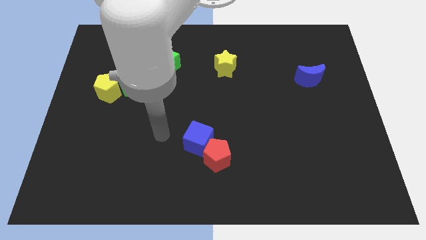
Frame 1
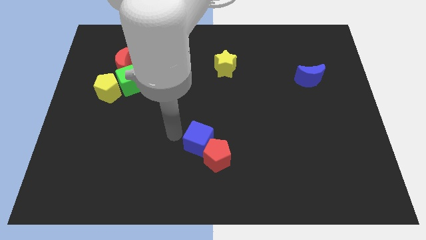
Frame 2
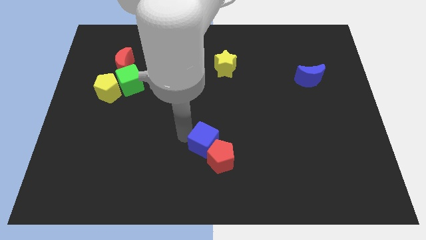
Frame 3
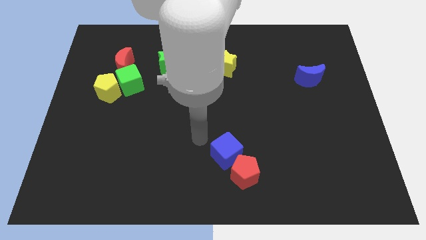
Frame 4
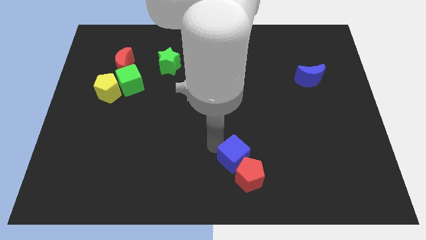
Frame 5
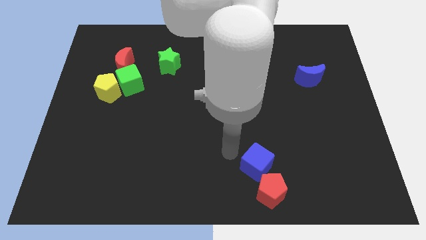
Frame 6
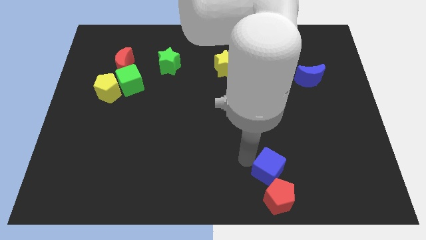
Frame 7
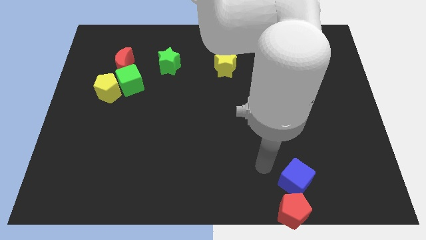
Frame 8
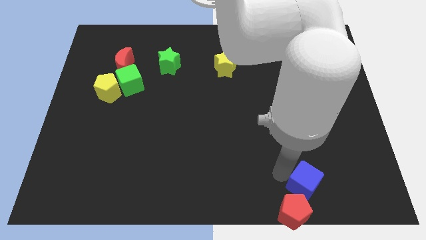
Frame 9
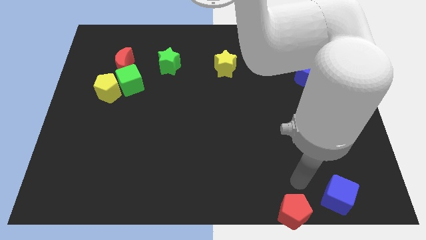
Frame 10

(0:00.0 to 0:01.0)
pull the red pentagon apart from the blue cube

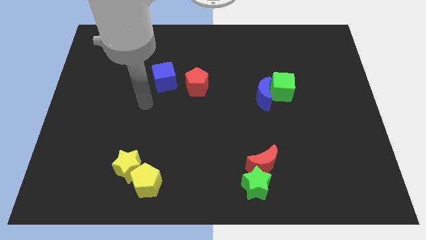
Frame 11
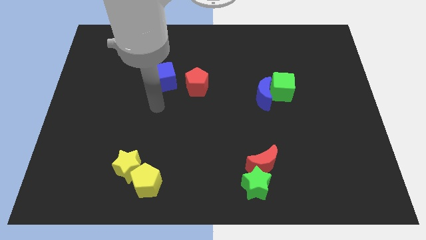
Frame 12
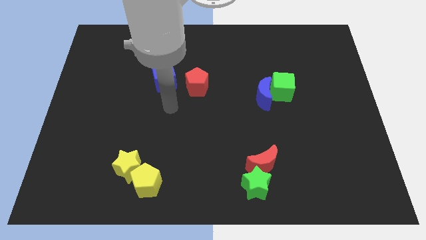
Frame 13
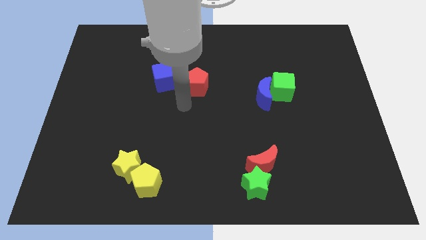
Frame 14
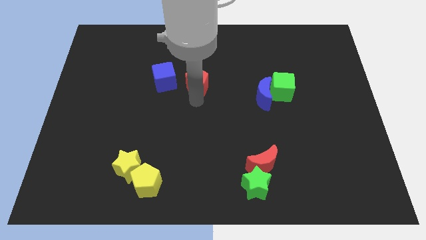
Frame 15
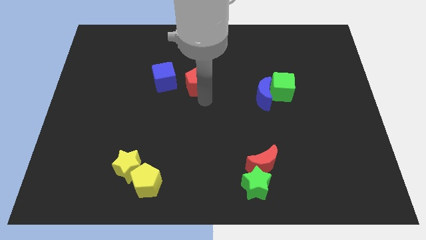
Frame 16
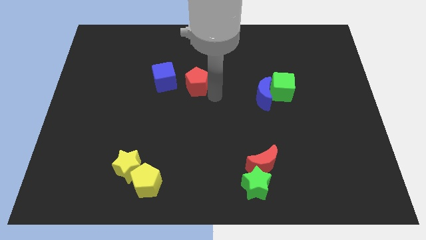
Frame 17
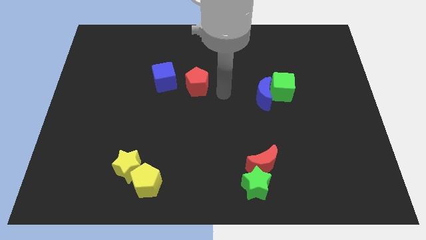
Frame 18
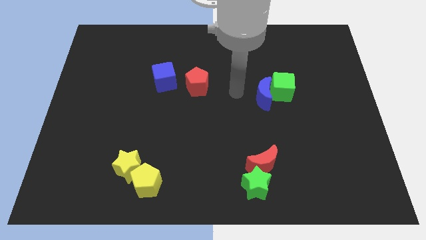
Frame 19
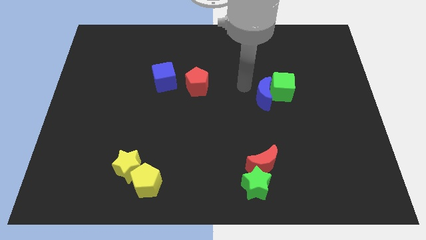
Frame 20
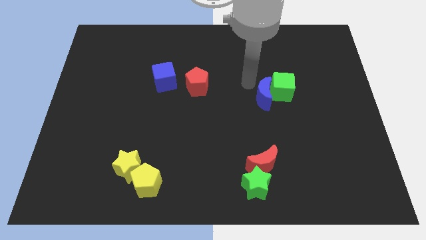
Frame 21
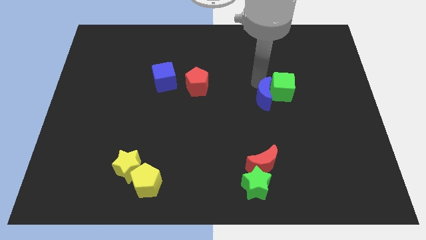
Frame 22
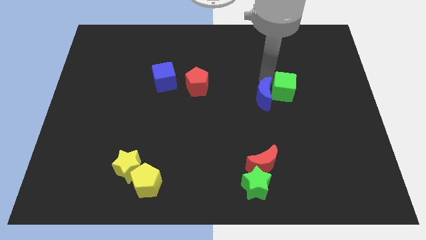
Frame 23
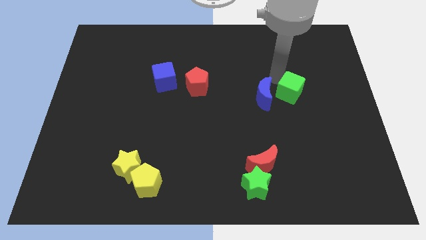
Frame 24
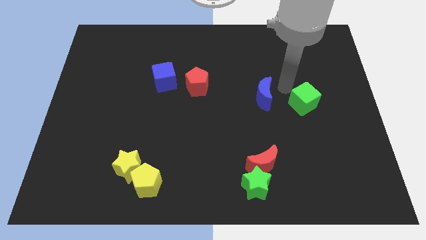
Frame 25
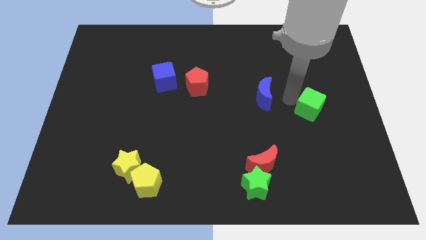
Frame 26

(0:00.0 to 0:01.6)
pull the blue moon apart from the green cube

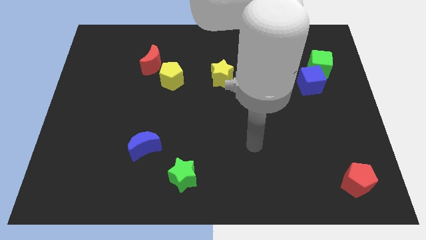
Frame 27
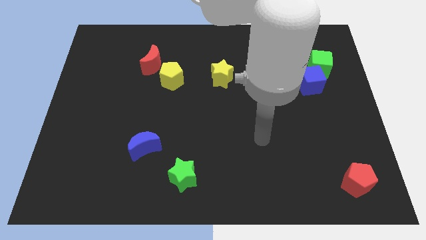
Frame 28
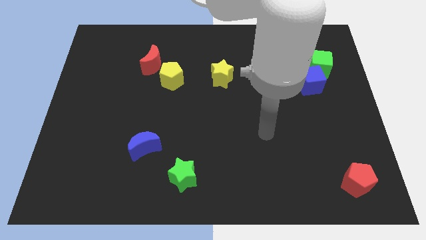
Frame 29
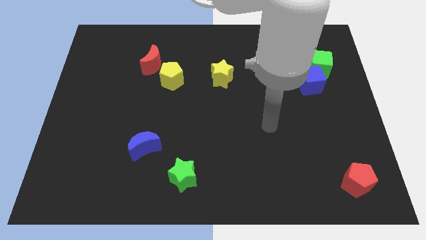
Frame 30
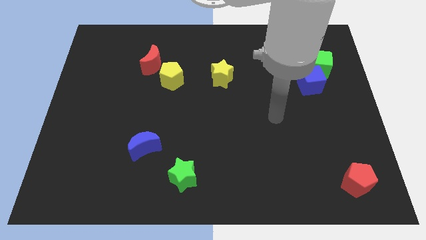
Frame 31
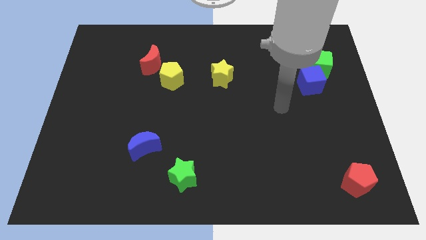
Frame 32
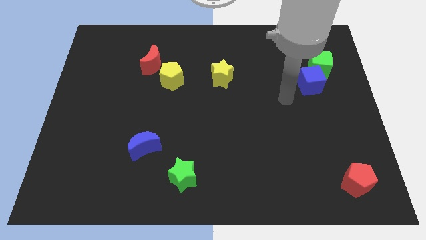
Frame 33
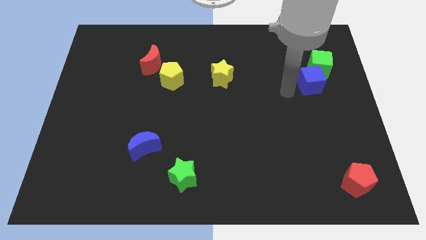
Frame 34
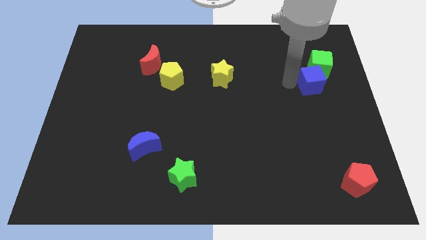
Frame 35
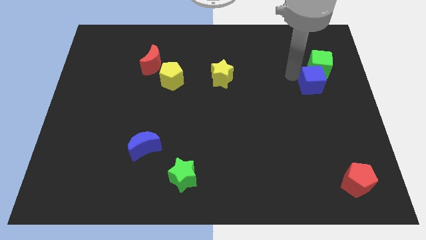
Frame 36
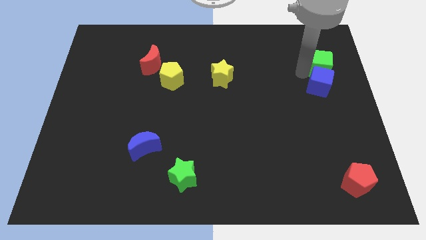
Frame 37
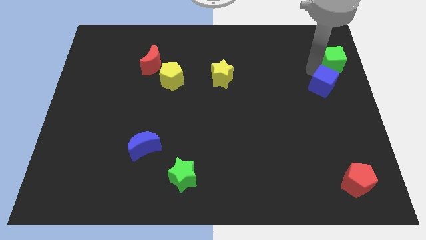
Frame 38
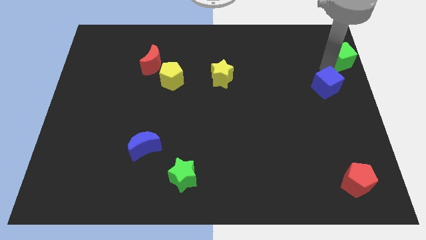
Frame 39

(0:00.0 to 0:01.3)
move the blue cube away from the green cube

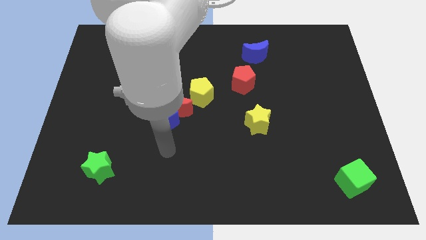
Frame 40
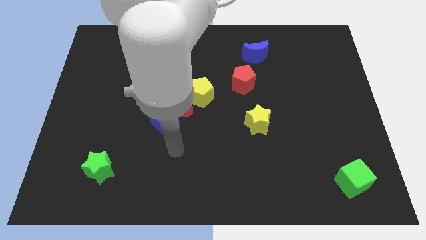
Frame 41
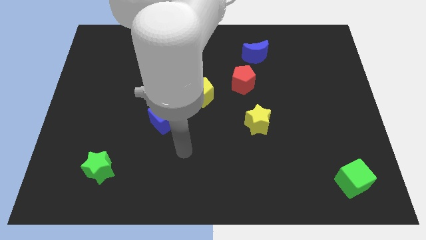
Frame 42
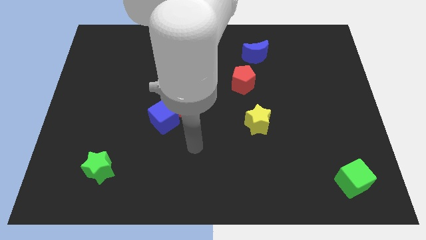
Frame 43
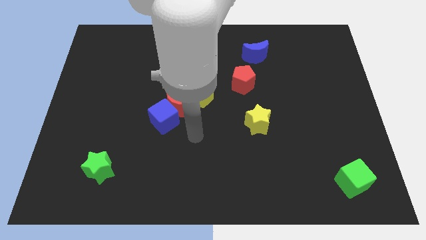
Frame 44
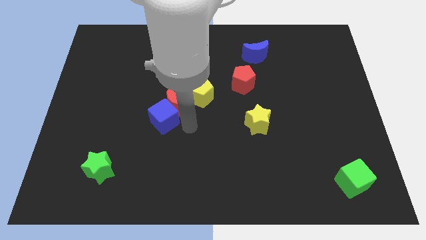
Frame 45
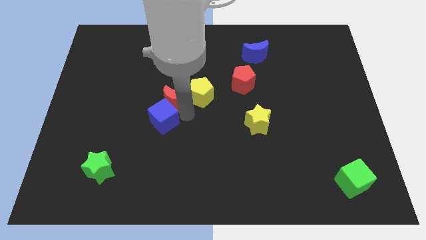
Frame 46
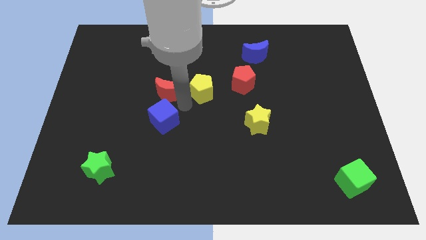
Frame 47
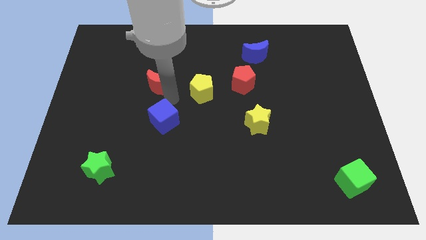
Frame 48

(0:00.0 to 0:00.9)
separate the blue cube from the red moon

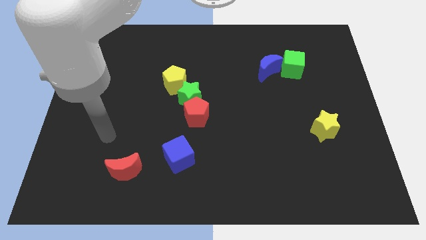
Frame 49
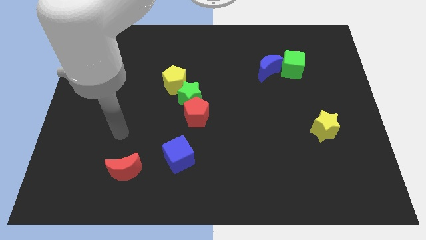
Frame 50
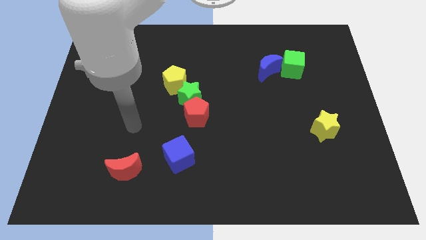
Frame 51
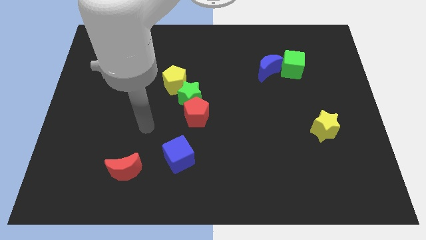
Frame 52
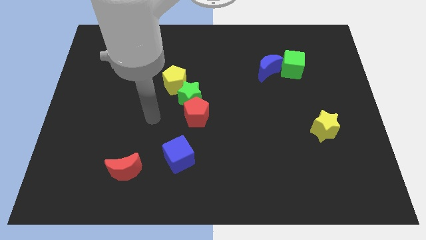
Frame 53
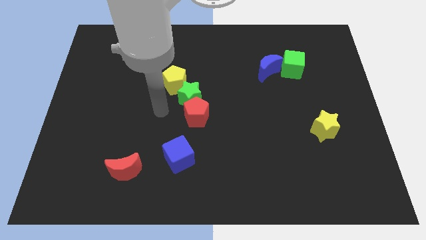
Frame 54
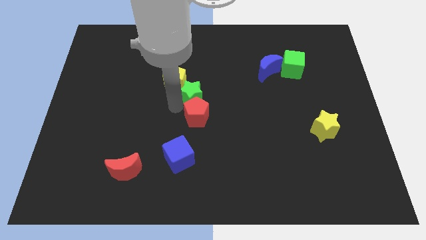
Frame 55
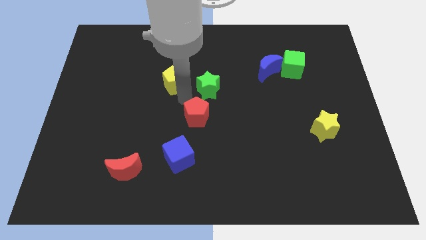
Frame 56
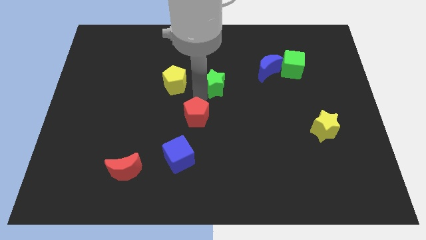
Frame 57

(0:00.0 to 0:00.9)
pull the red pentagon apart from the green star

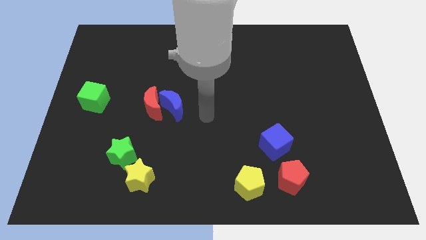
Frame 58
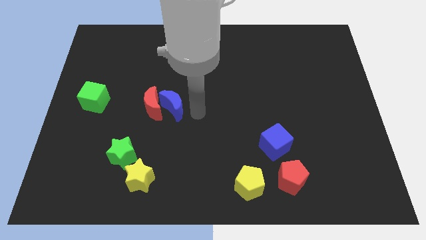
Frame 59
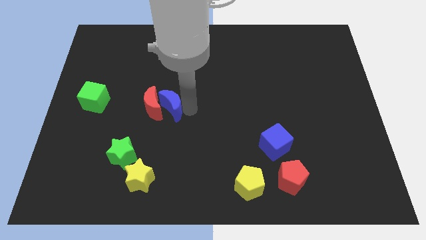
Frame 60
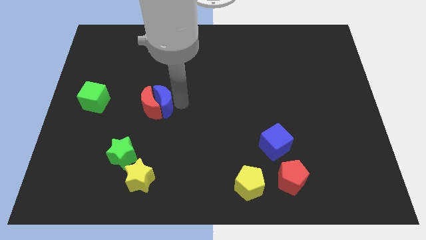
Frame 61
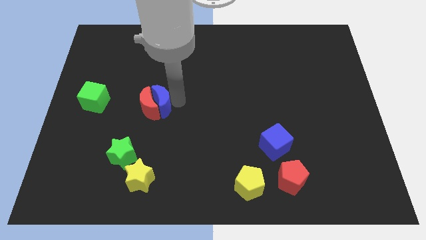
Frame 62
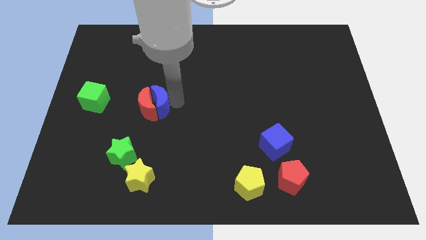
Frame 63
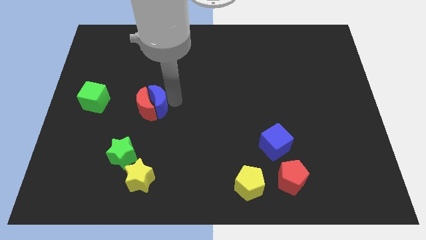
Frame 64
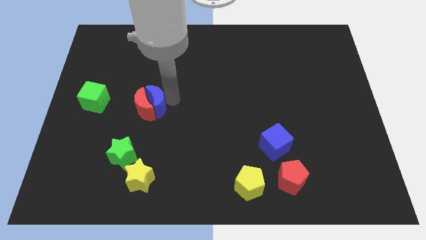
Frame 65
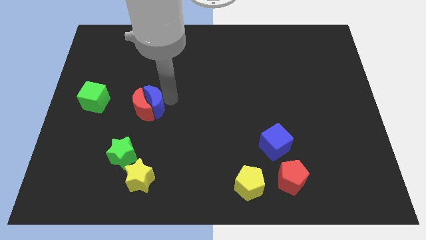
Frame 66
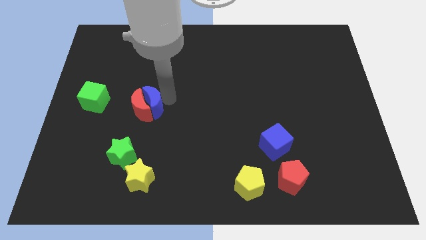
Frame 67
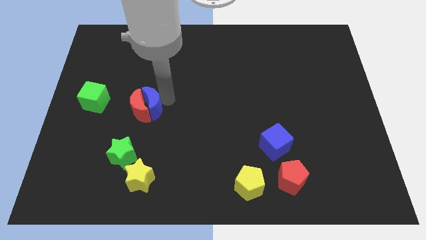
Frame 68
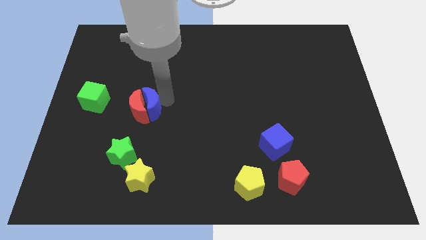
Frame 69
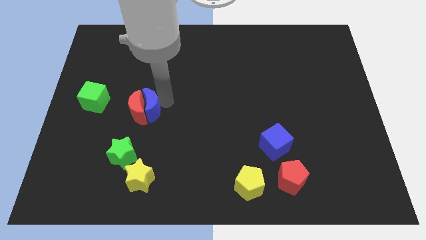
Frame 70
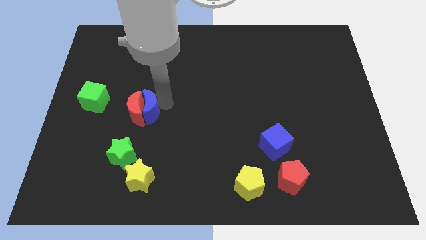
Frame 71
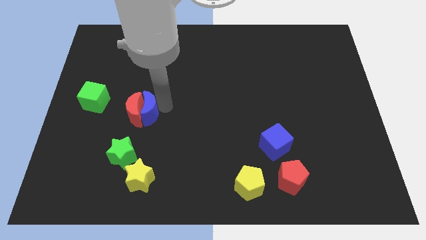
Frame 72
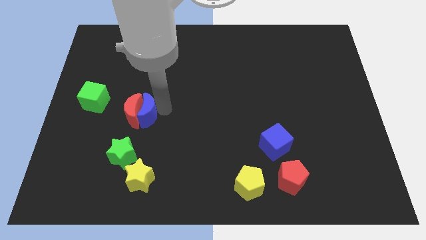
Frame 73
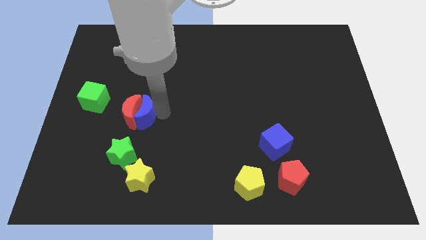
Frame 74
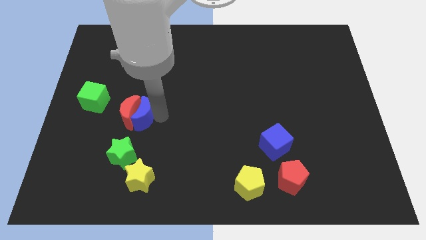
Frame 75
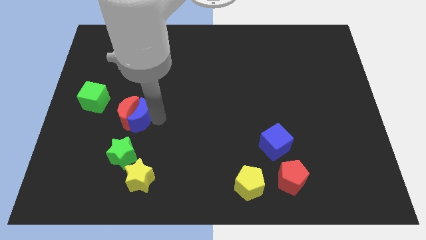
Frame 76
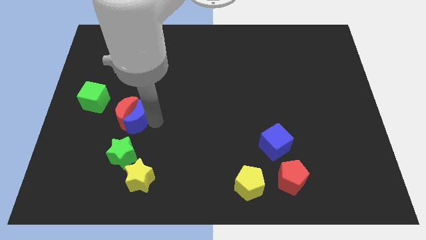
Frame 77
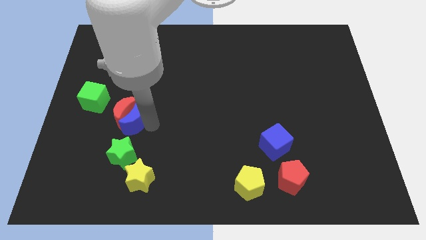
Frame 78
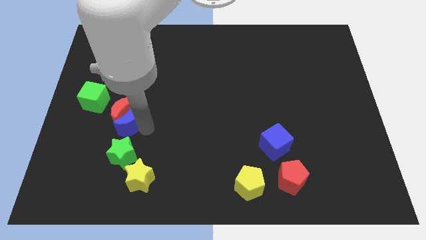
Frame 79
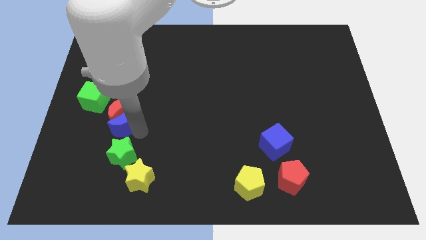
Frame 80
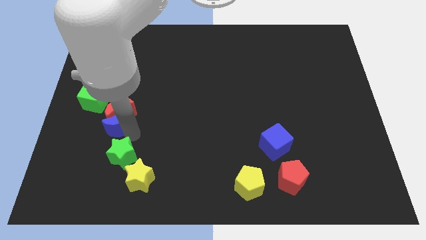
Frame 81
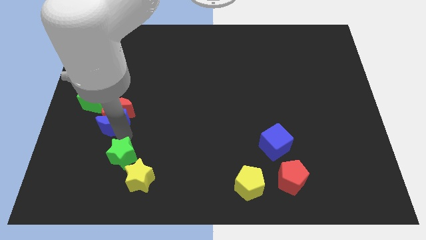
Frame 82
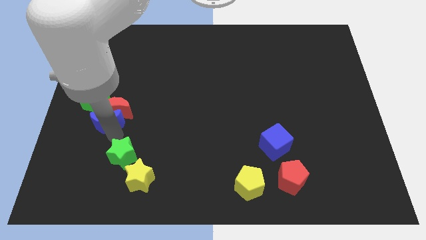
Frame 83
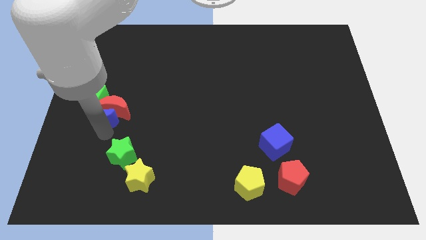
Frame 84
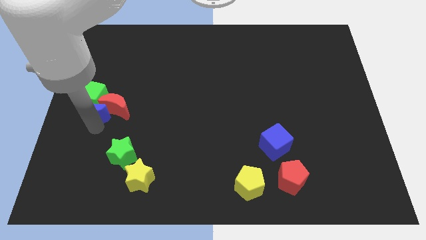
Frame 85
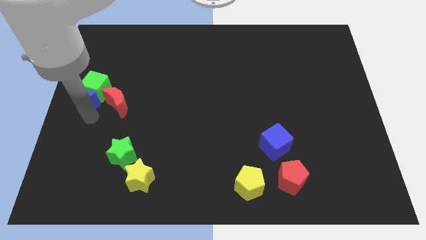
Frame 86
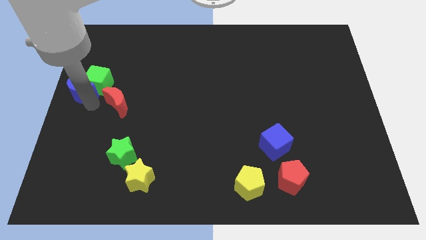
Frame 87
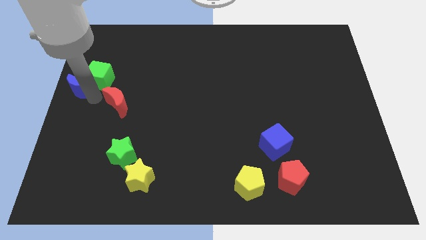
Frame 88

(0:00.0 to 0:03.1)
move the red moon away from the blue moon

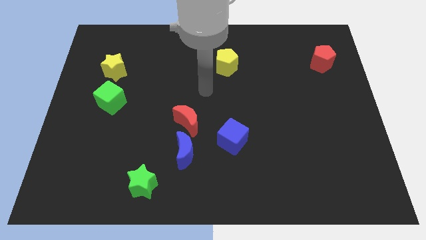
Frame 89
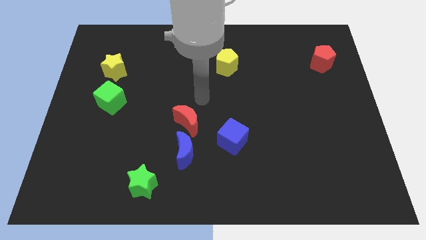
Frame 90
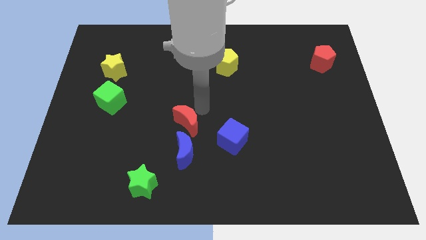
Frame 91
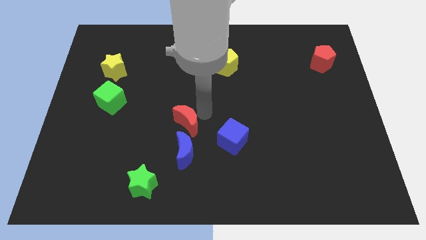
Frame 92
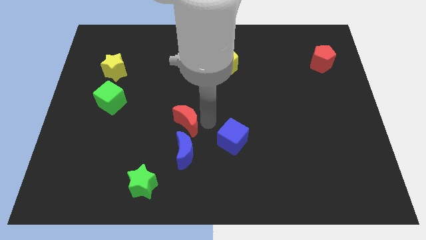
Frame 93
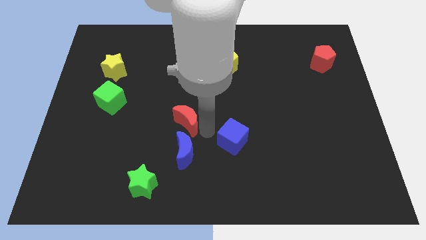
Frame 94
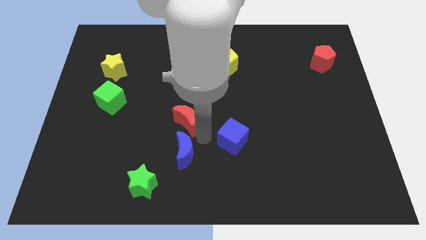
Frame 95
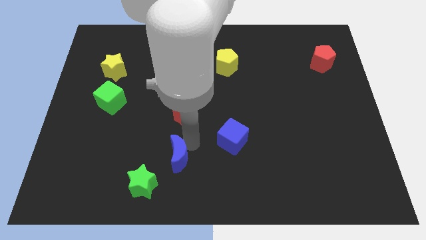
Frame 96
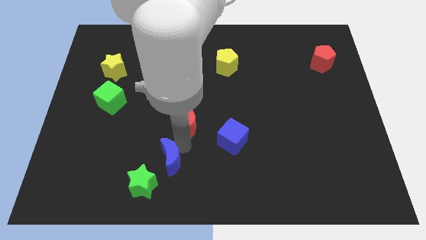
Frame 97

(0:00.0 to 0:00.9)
separate the red moon from the blue moon
